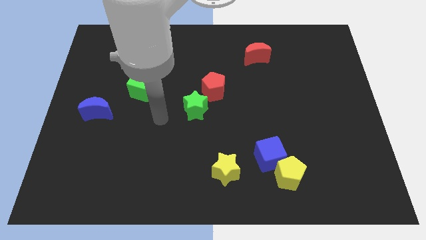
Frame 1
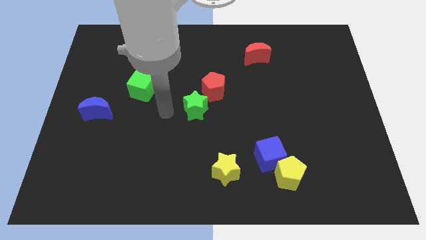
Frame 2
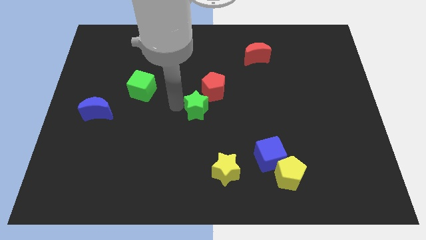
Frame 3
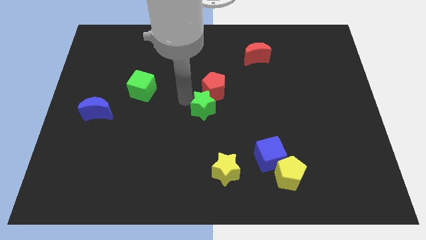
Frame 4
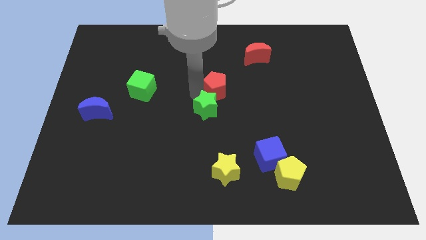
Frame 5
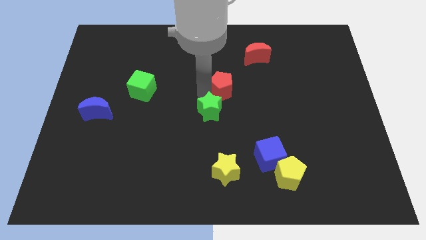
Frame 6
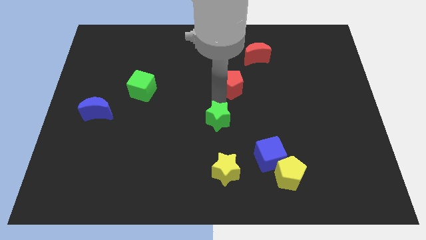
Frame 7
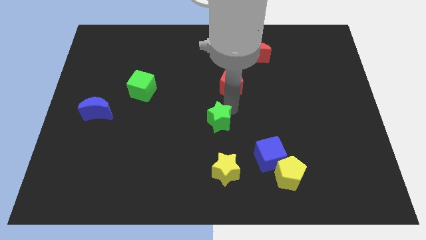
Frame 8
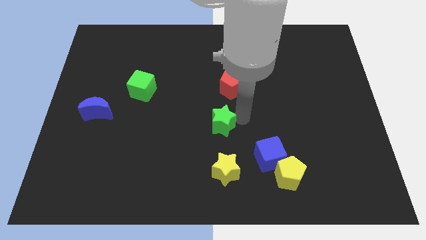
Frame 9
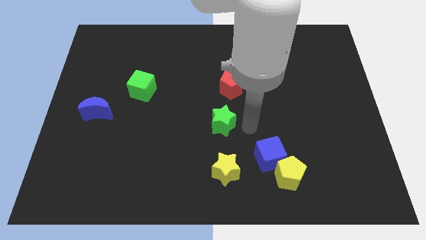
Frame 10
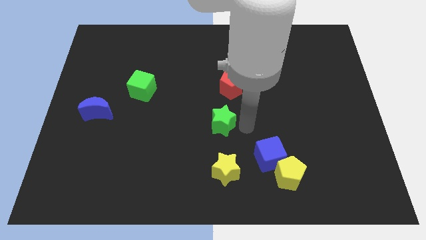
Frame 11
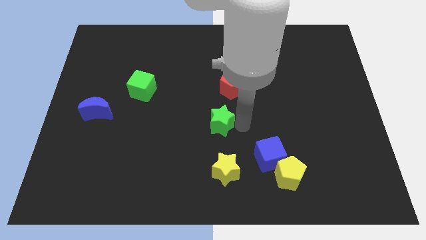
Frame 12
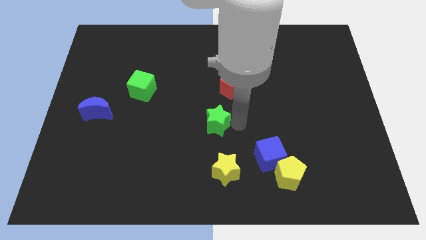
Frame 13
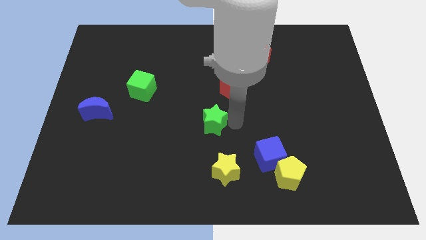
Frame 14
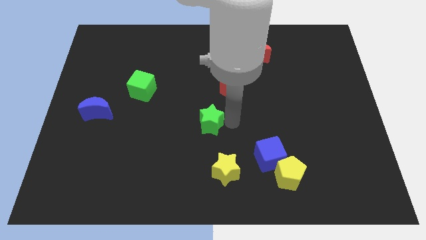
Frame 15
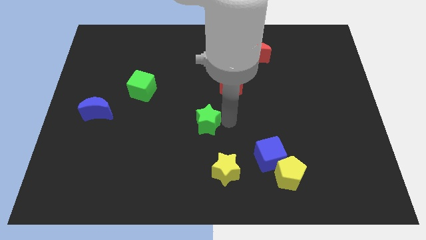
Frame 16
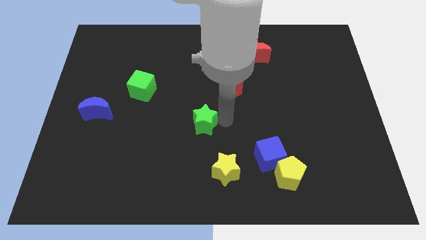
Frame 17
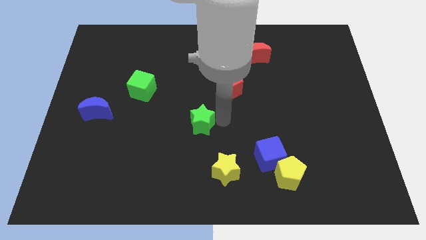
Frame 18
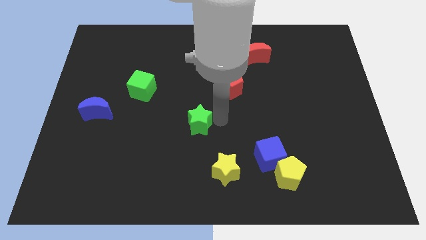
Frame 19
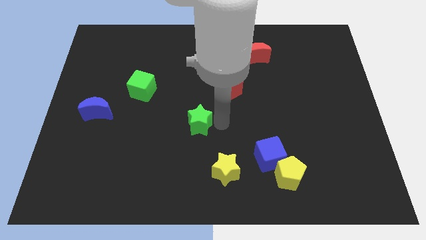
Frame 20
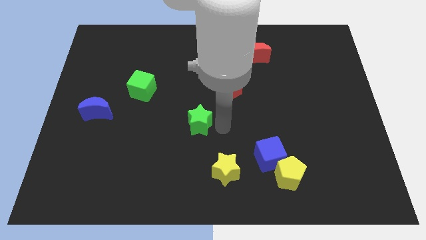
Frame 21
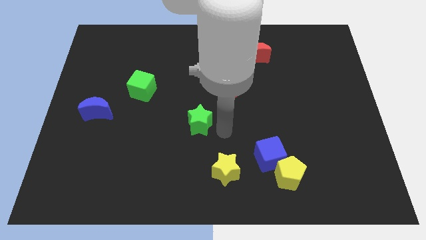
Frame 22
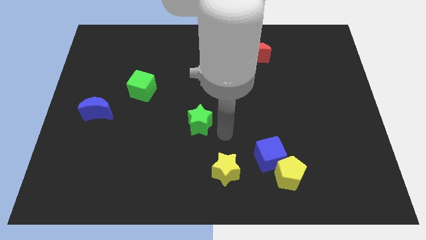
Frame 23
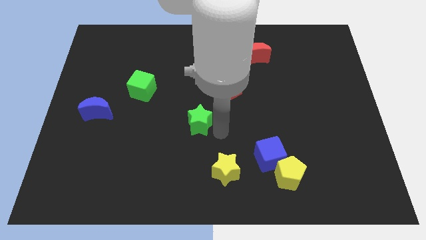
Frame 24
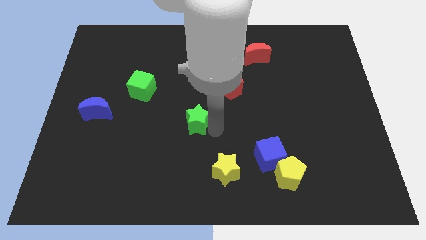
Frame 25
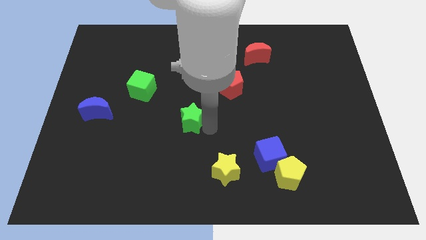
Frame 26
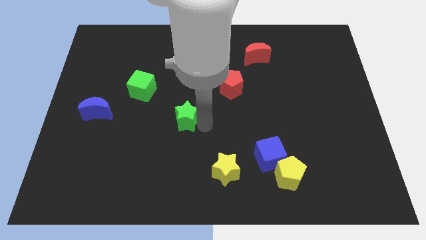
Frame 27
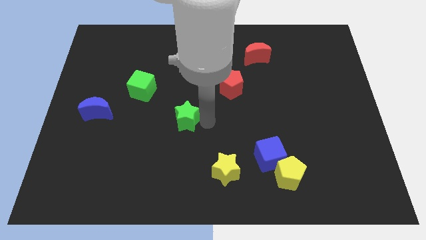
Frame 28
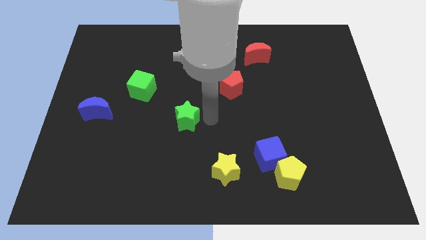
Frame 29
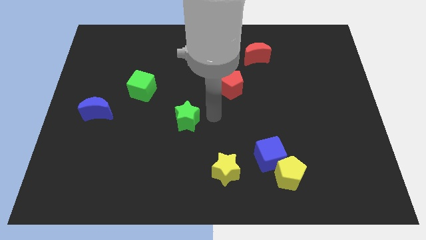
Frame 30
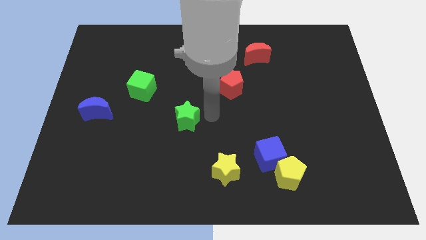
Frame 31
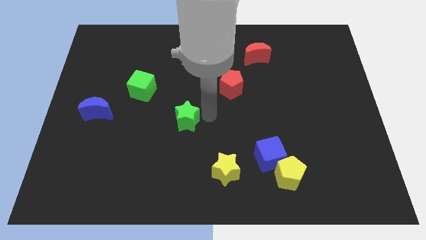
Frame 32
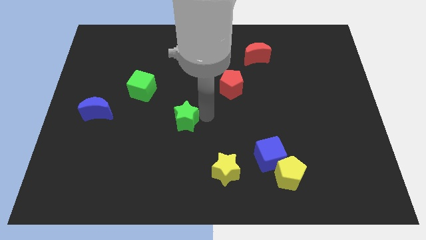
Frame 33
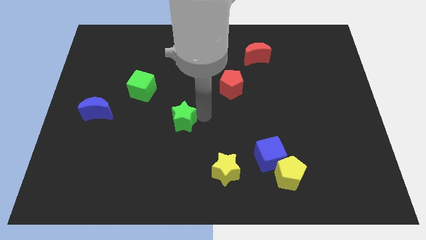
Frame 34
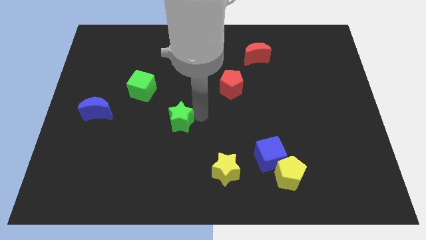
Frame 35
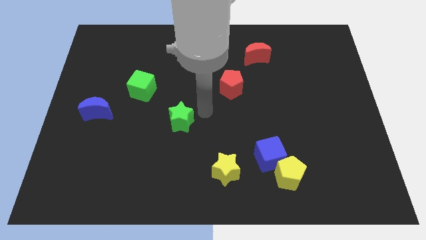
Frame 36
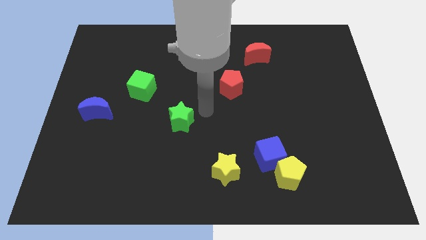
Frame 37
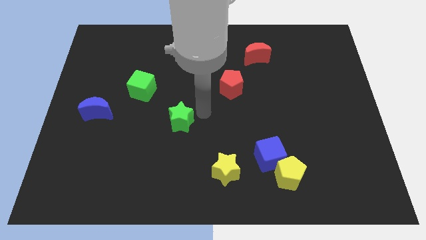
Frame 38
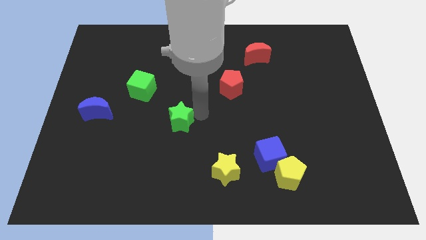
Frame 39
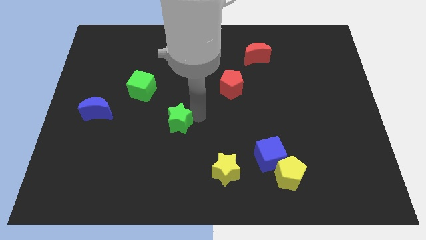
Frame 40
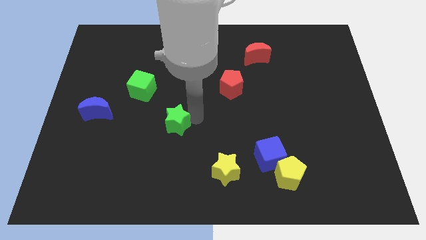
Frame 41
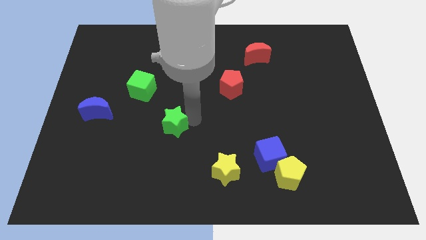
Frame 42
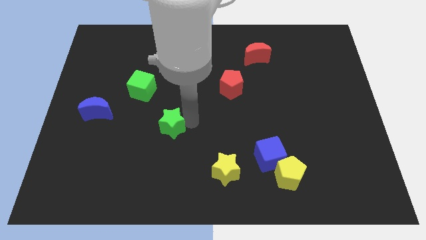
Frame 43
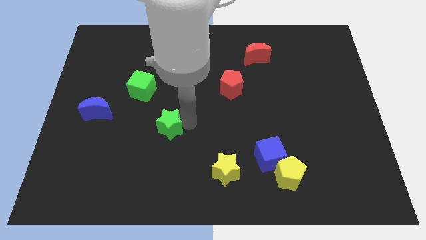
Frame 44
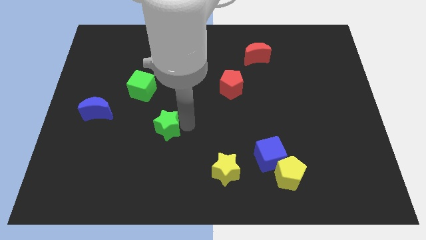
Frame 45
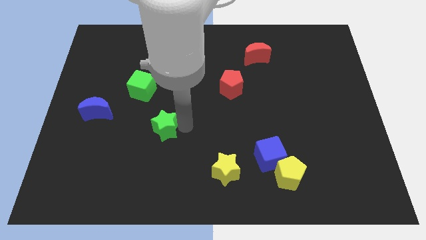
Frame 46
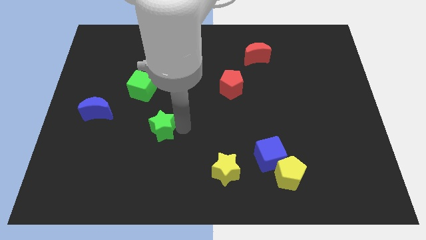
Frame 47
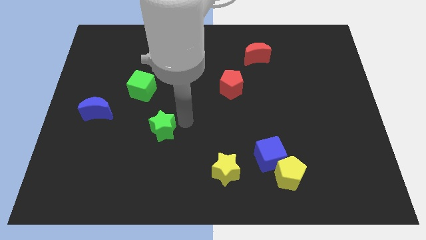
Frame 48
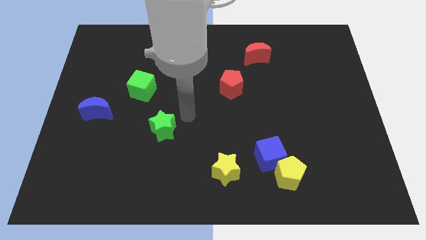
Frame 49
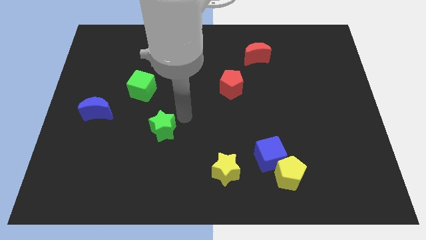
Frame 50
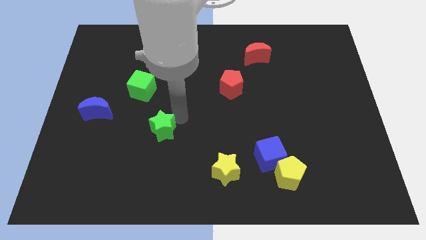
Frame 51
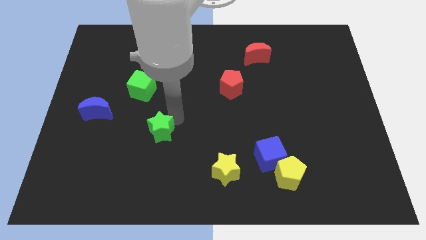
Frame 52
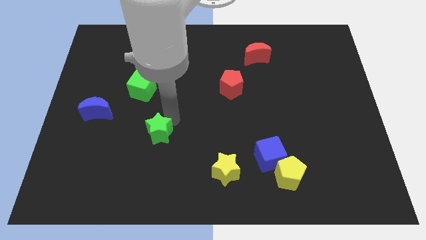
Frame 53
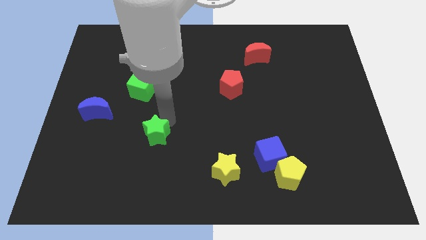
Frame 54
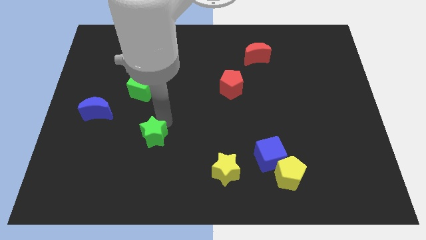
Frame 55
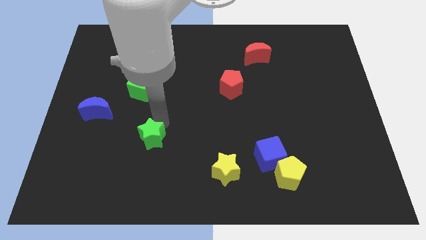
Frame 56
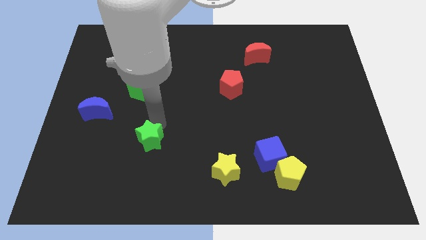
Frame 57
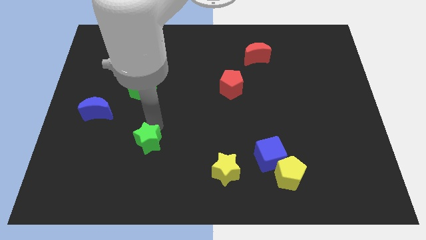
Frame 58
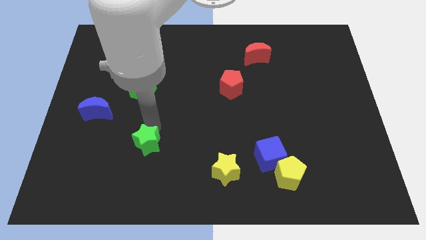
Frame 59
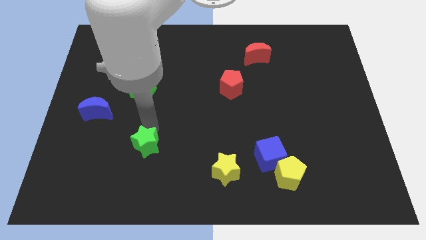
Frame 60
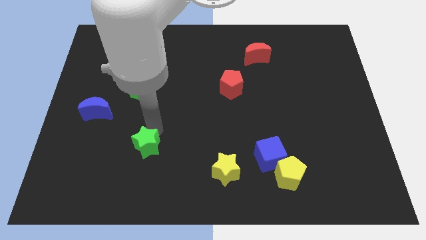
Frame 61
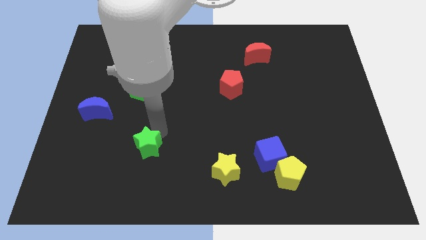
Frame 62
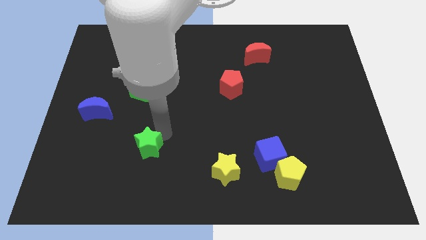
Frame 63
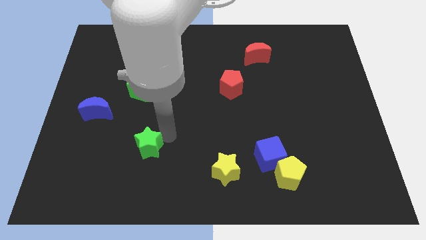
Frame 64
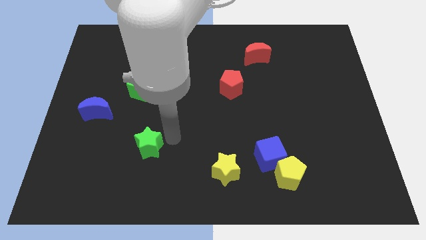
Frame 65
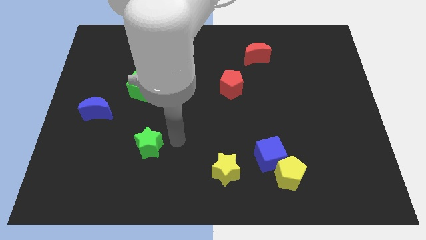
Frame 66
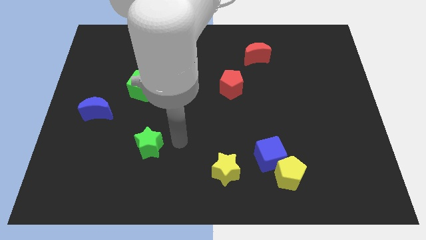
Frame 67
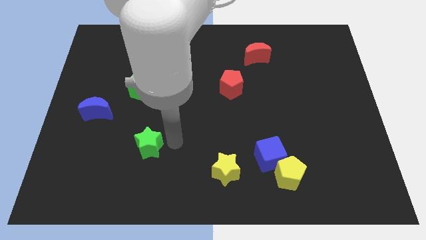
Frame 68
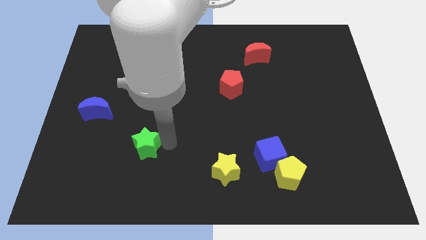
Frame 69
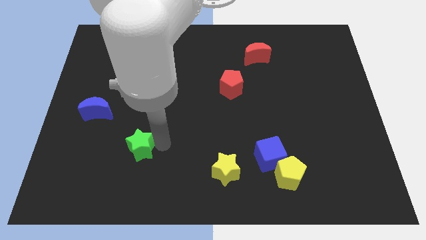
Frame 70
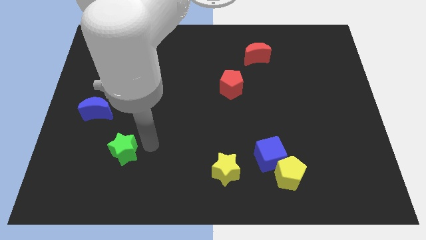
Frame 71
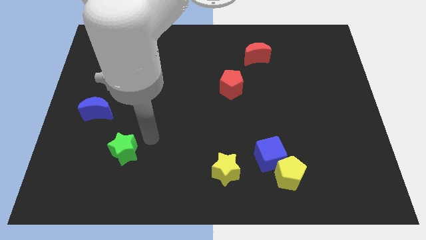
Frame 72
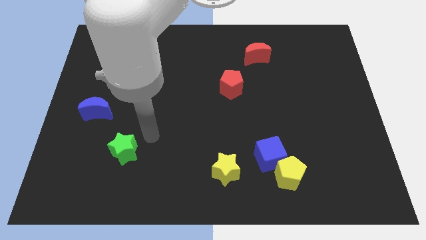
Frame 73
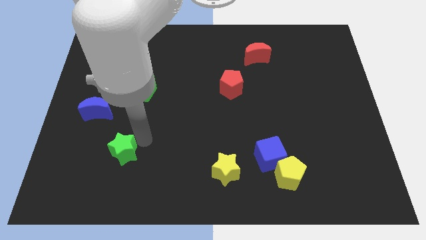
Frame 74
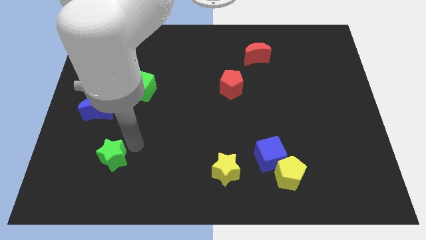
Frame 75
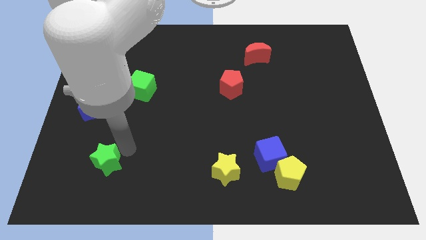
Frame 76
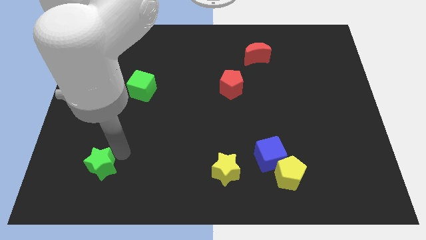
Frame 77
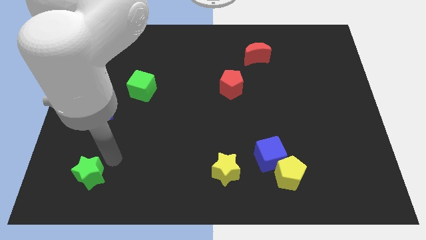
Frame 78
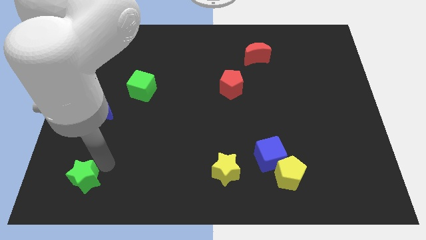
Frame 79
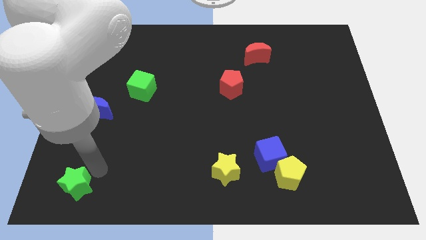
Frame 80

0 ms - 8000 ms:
slide the green star to the lower left corner
